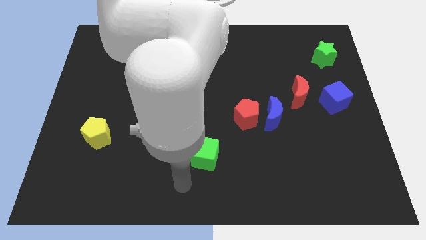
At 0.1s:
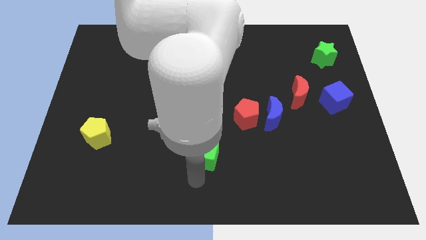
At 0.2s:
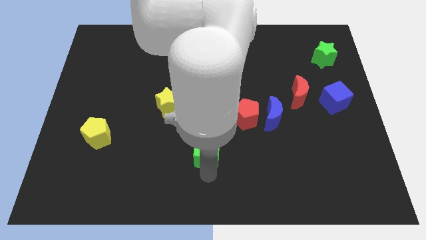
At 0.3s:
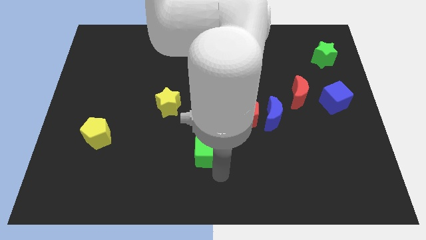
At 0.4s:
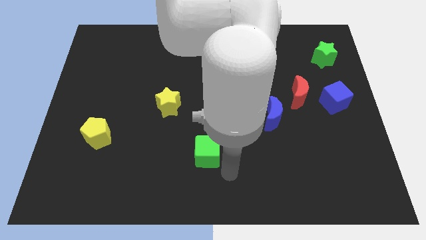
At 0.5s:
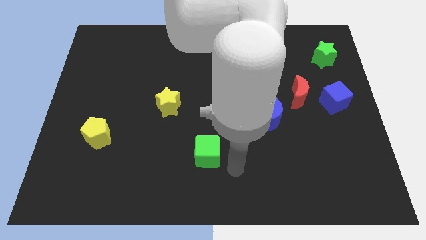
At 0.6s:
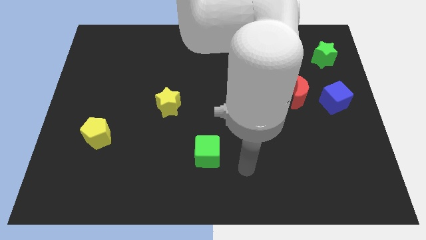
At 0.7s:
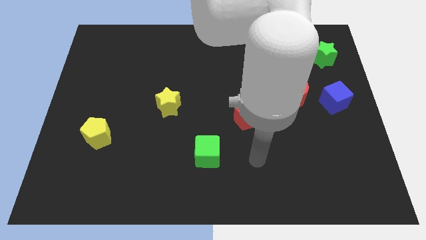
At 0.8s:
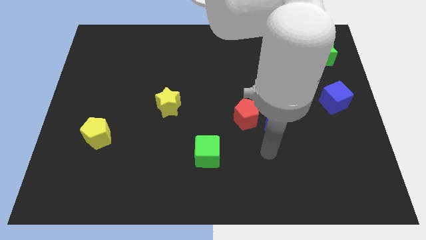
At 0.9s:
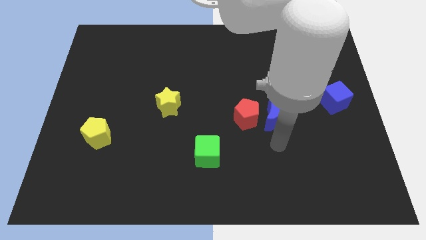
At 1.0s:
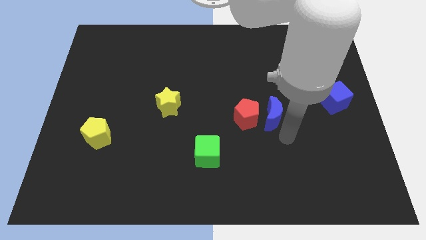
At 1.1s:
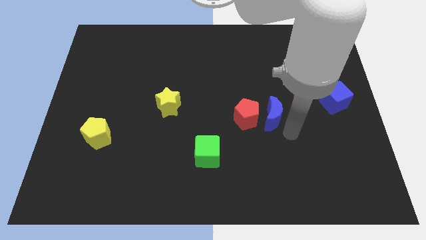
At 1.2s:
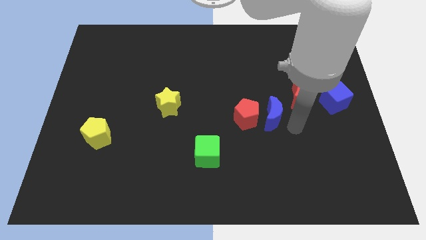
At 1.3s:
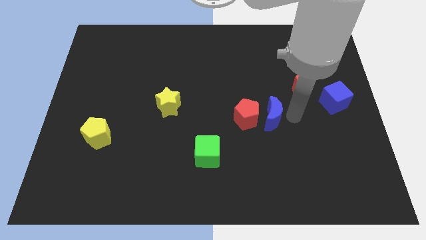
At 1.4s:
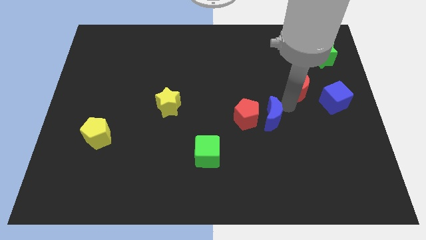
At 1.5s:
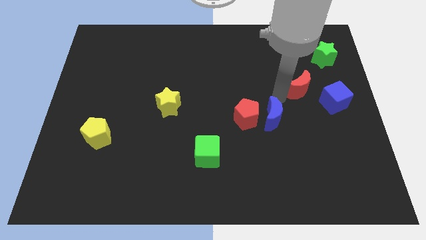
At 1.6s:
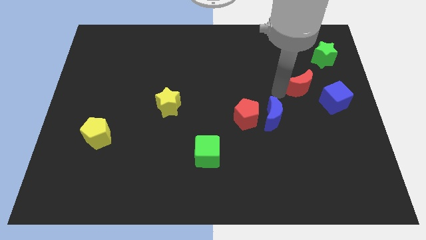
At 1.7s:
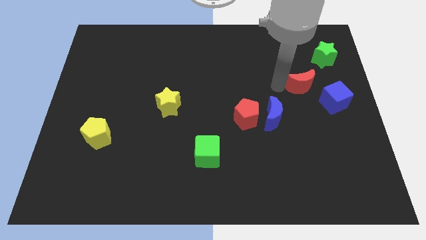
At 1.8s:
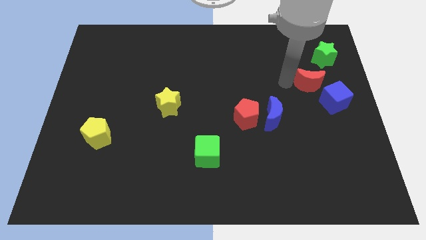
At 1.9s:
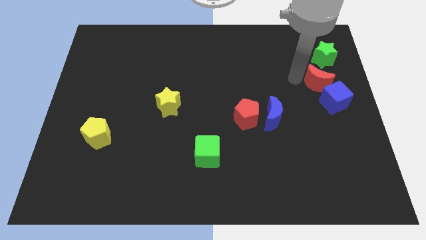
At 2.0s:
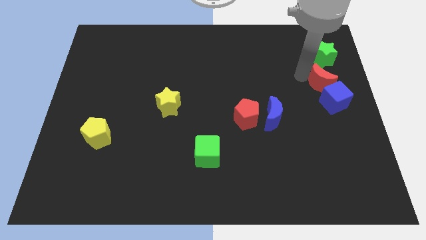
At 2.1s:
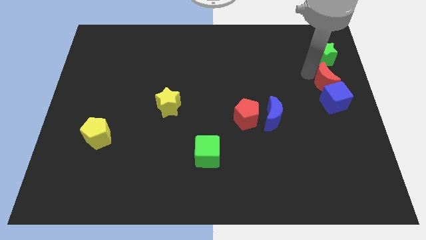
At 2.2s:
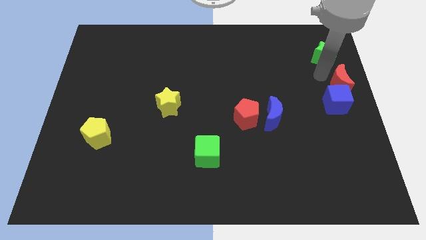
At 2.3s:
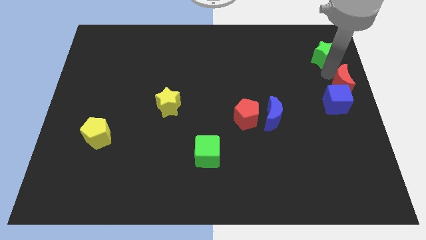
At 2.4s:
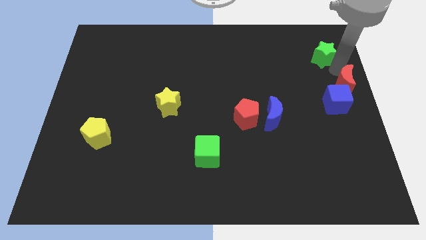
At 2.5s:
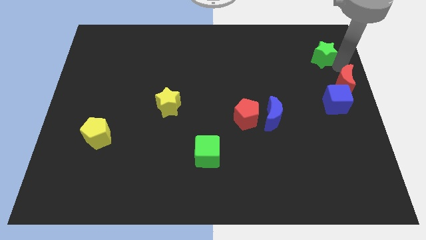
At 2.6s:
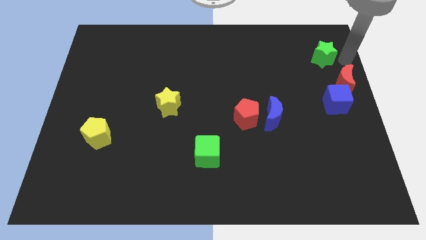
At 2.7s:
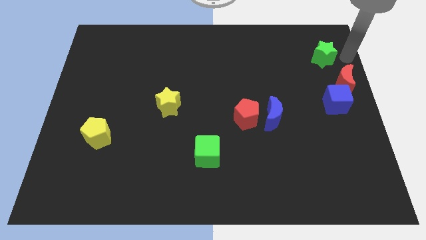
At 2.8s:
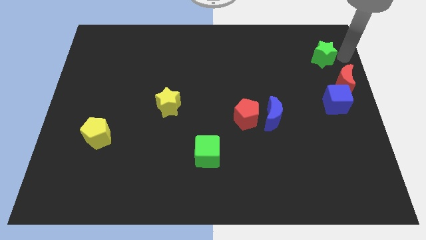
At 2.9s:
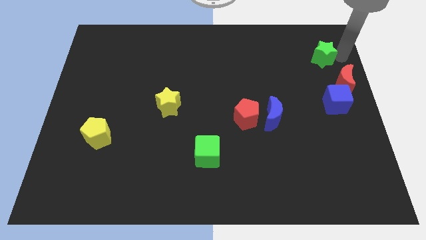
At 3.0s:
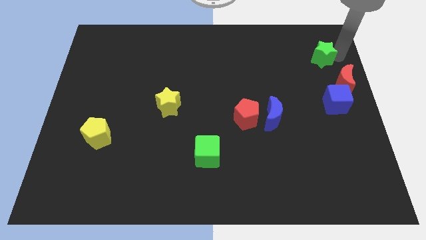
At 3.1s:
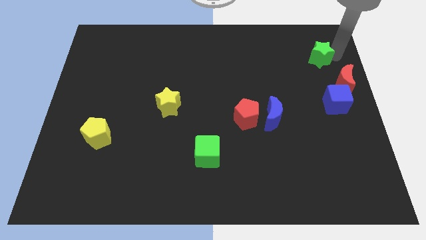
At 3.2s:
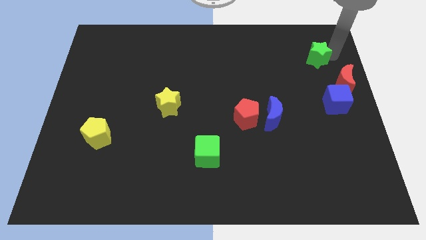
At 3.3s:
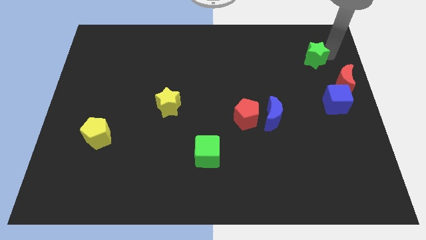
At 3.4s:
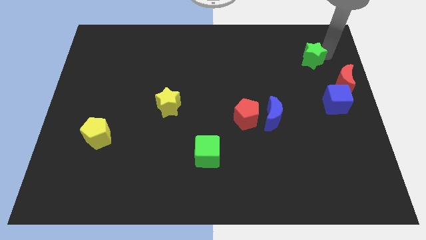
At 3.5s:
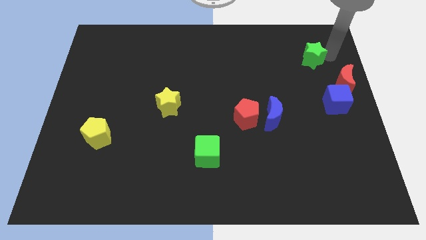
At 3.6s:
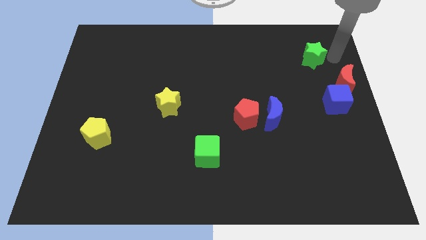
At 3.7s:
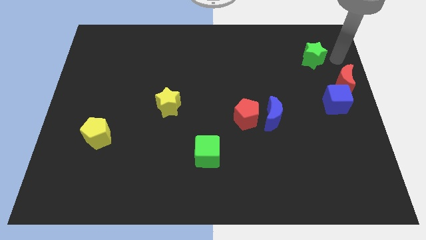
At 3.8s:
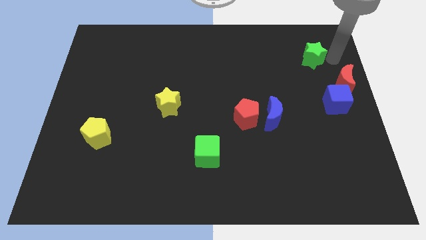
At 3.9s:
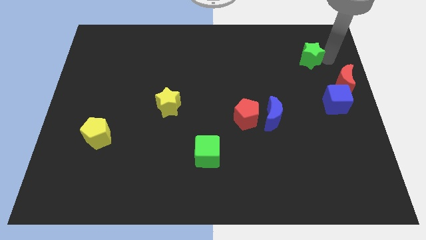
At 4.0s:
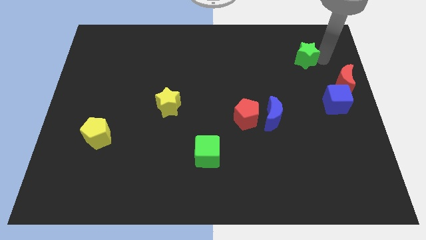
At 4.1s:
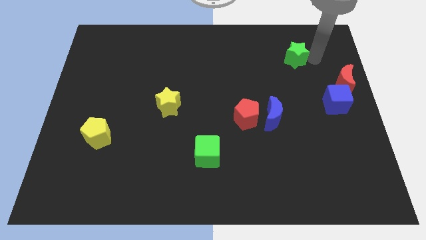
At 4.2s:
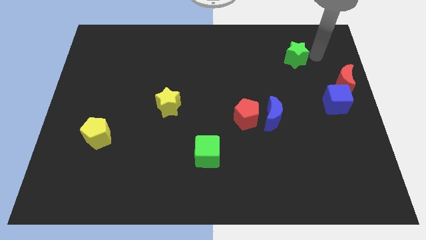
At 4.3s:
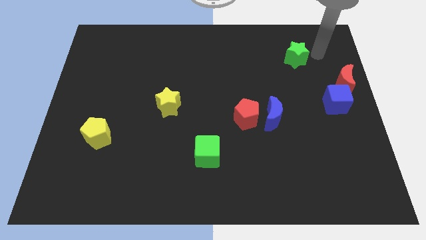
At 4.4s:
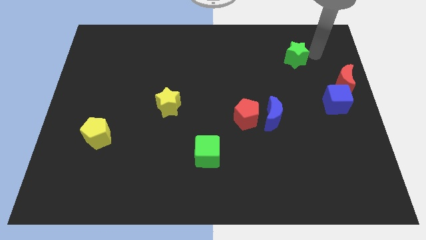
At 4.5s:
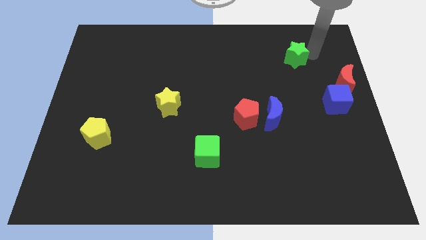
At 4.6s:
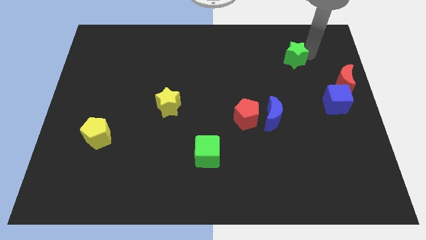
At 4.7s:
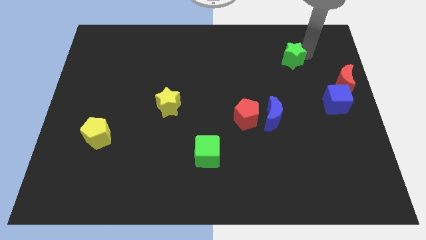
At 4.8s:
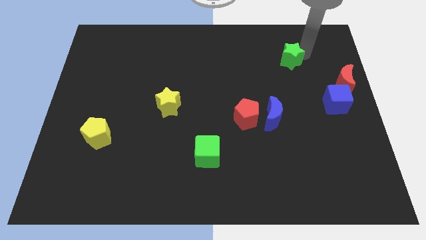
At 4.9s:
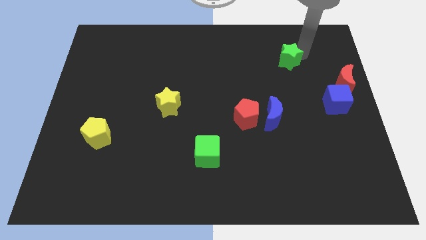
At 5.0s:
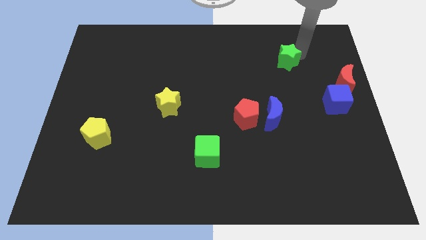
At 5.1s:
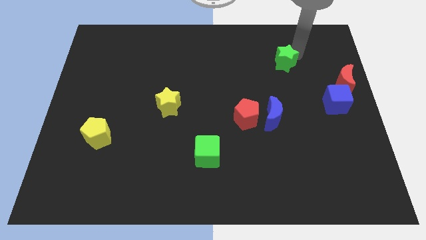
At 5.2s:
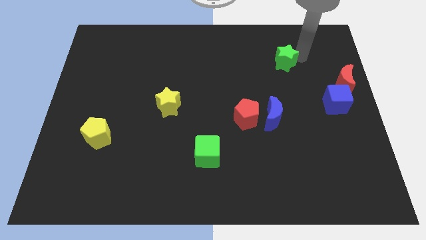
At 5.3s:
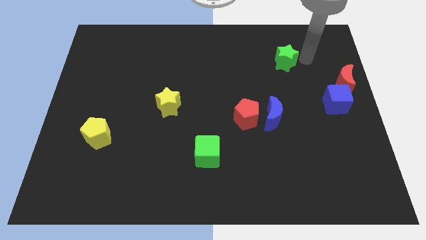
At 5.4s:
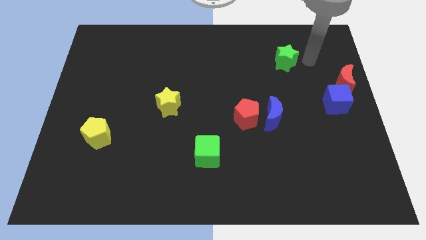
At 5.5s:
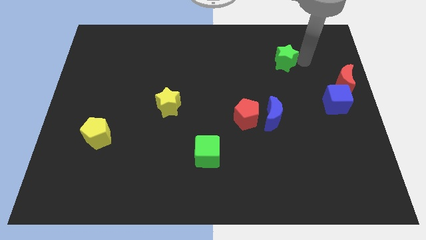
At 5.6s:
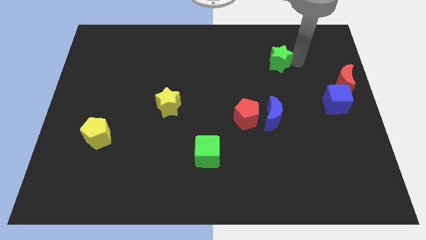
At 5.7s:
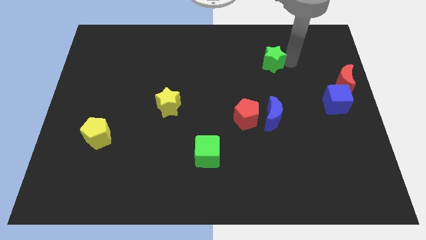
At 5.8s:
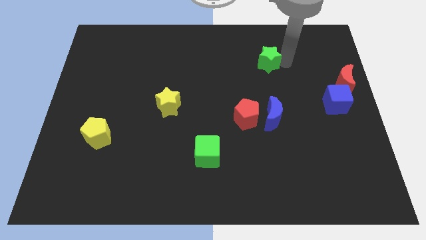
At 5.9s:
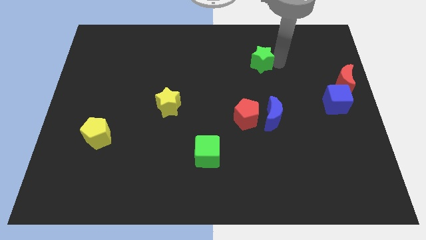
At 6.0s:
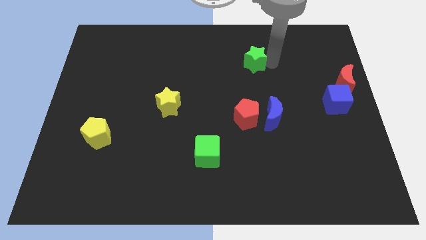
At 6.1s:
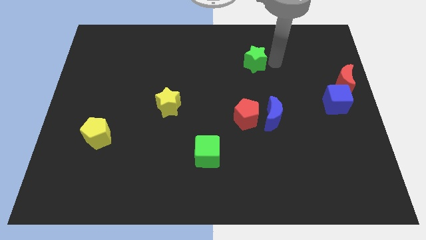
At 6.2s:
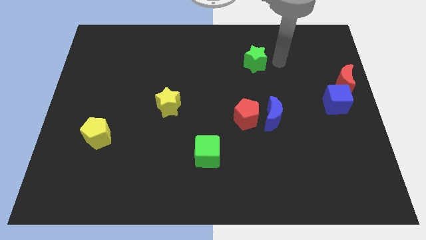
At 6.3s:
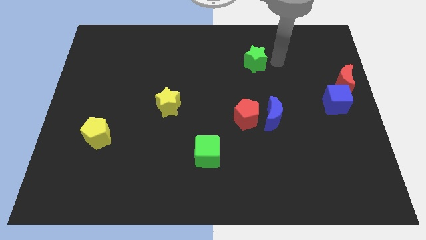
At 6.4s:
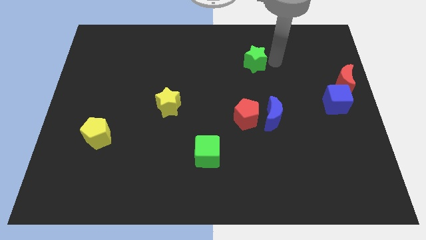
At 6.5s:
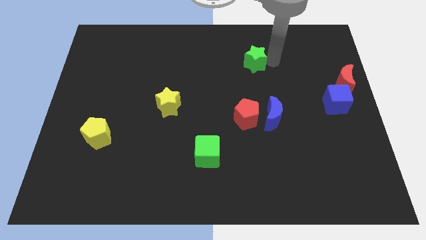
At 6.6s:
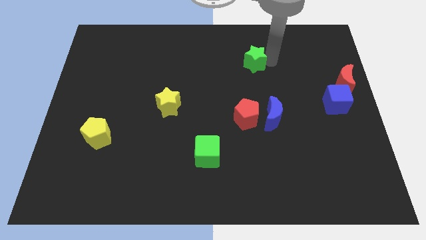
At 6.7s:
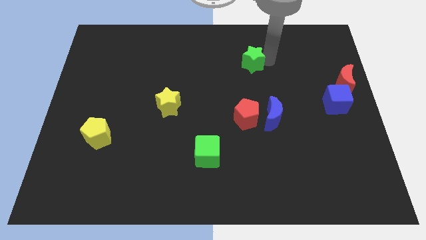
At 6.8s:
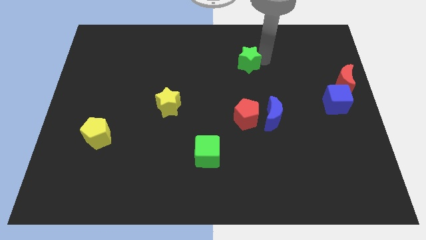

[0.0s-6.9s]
push the green star to the left

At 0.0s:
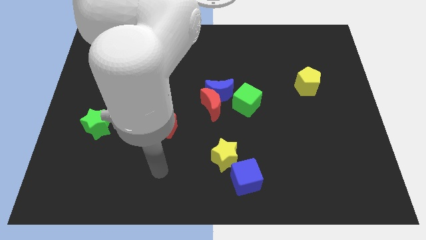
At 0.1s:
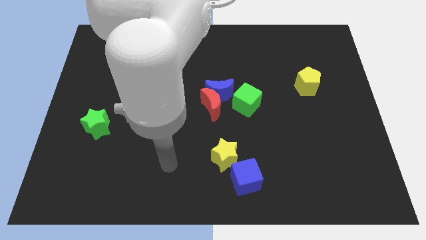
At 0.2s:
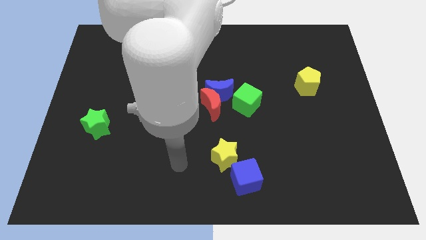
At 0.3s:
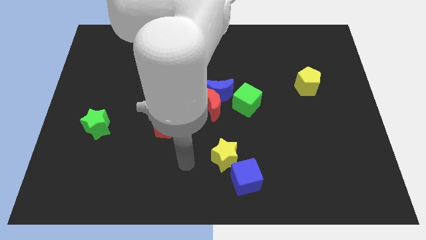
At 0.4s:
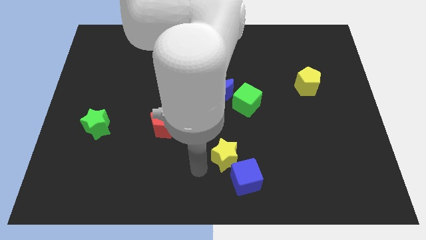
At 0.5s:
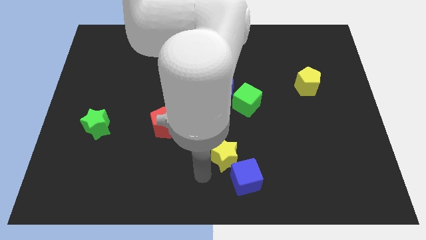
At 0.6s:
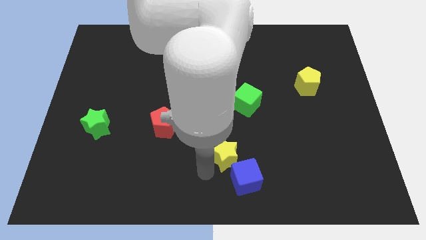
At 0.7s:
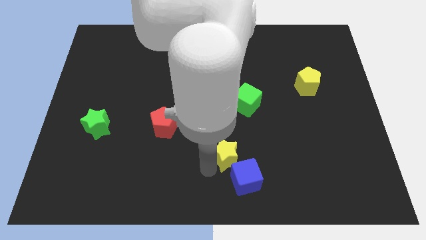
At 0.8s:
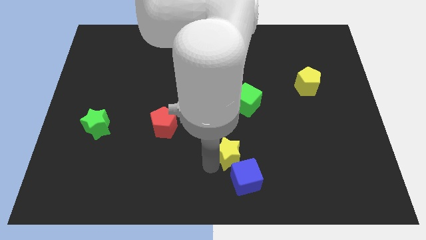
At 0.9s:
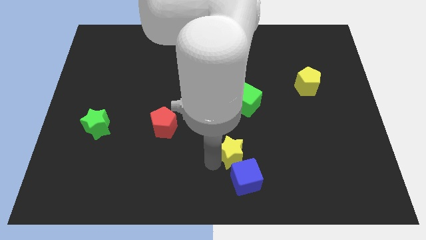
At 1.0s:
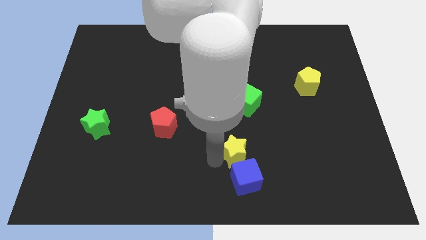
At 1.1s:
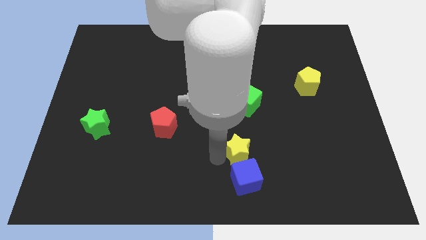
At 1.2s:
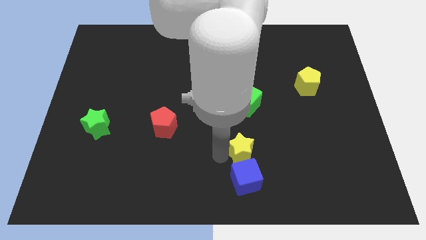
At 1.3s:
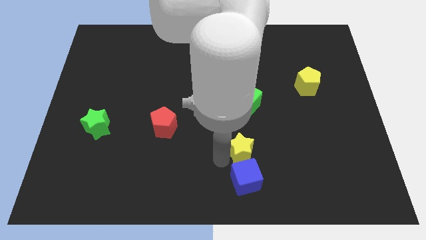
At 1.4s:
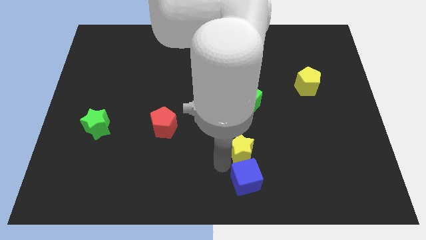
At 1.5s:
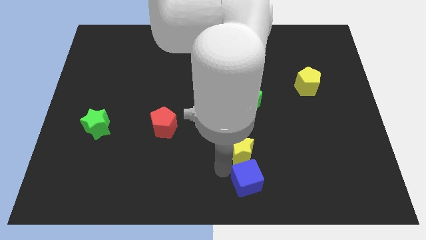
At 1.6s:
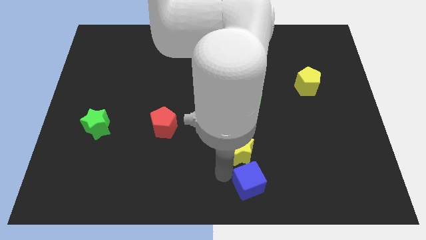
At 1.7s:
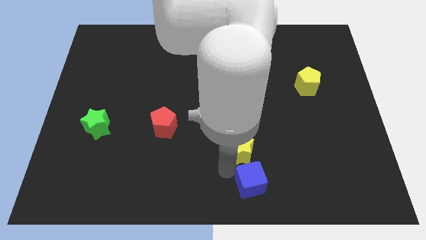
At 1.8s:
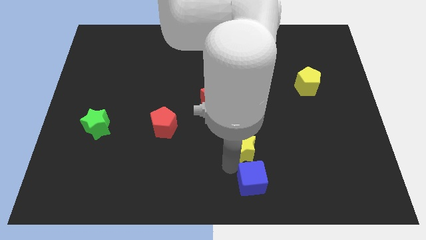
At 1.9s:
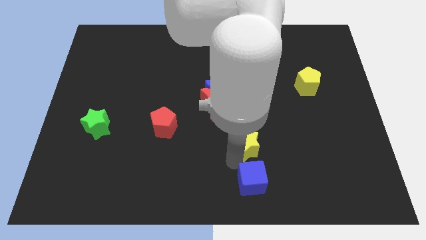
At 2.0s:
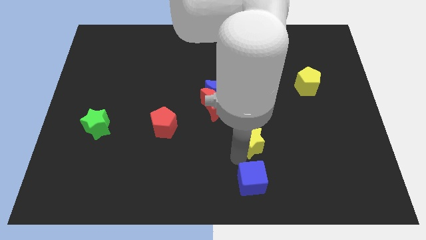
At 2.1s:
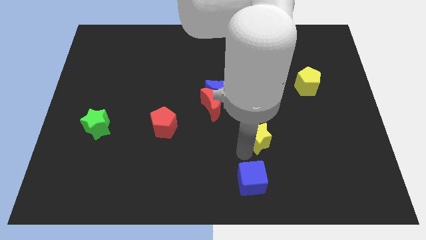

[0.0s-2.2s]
move the yellow star up and to the right diagonally a little
